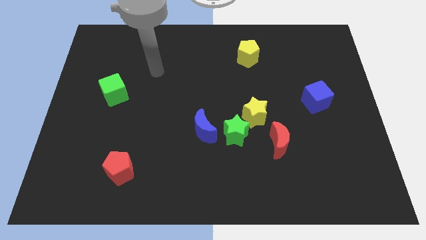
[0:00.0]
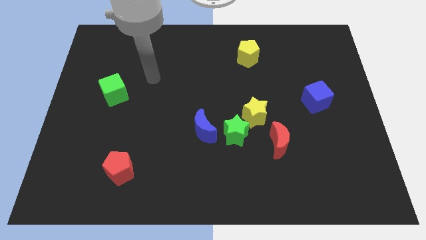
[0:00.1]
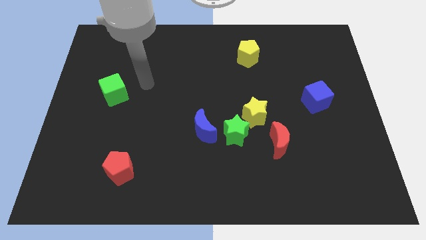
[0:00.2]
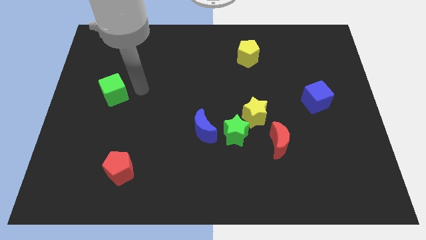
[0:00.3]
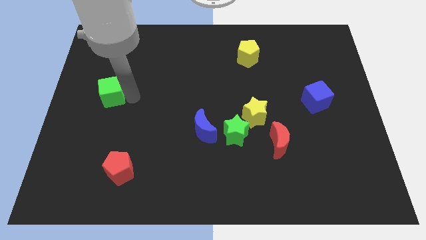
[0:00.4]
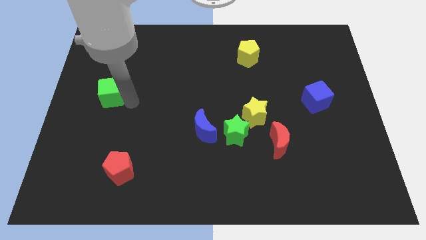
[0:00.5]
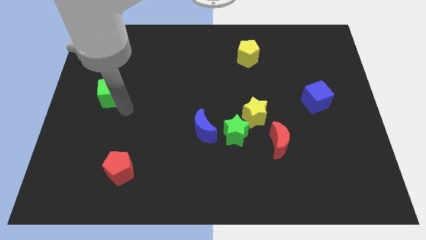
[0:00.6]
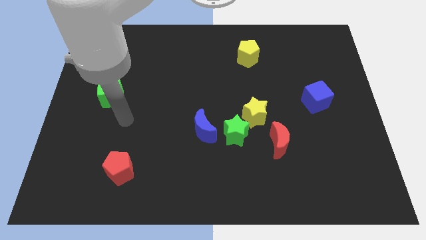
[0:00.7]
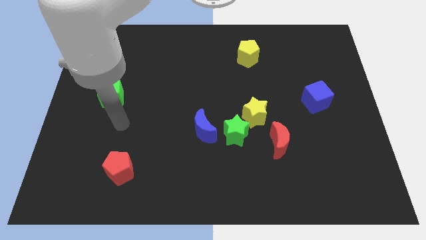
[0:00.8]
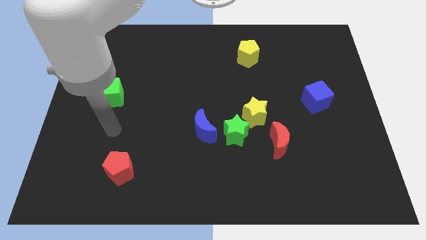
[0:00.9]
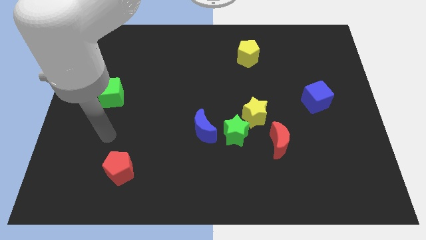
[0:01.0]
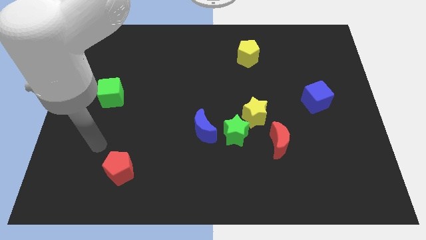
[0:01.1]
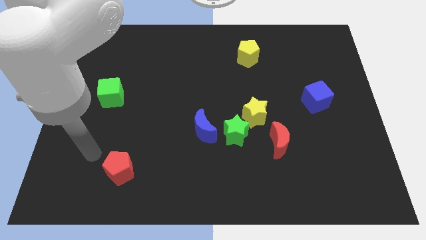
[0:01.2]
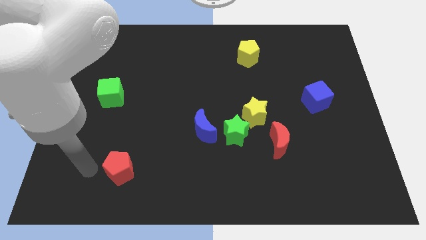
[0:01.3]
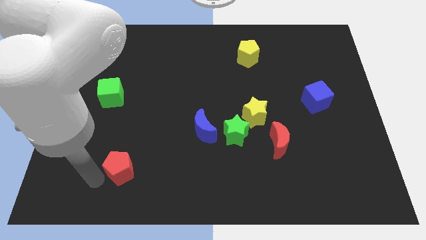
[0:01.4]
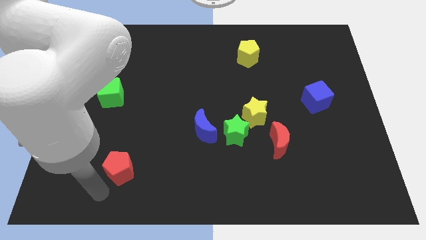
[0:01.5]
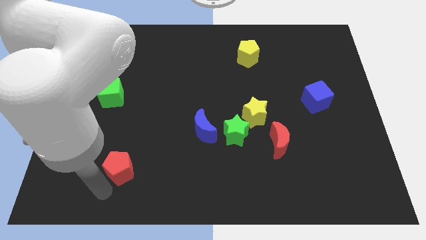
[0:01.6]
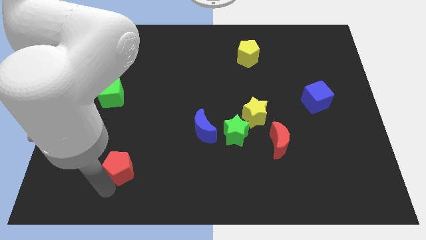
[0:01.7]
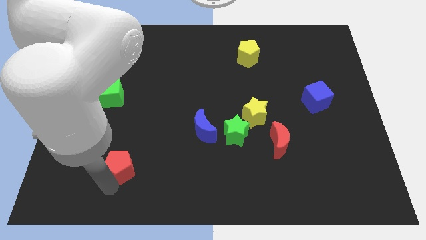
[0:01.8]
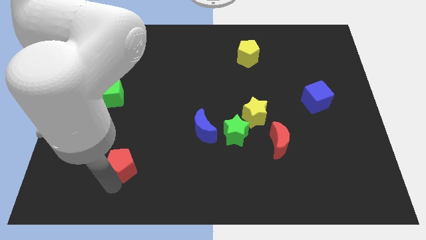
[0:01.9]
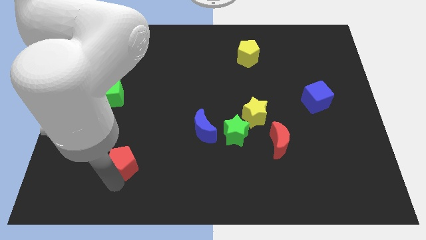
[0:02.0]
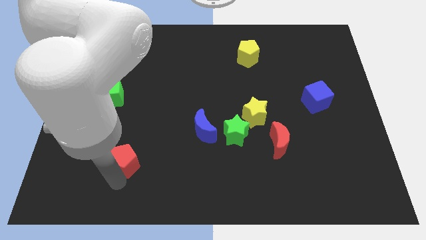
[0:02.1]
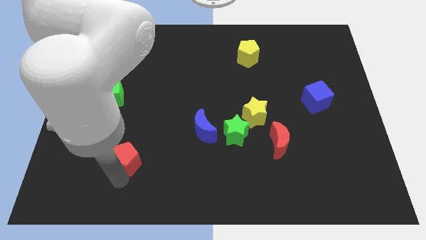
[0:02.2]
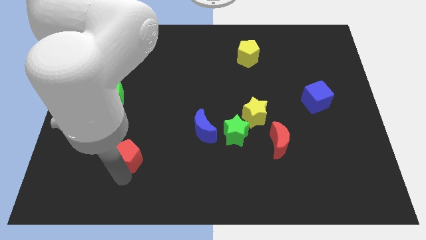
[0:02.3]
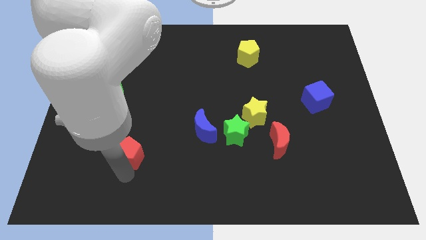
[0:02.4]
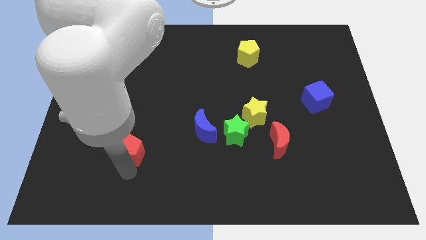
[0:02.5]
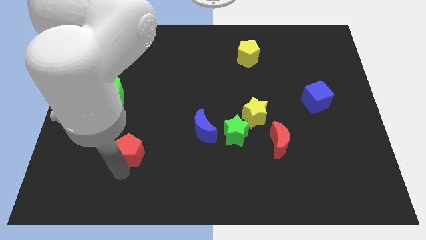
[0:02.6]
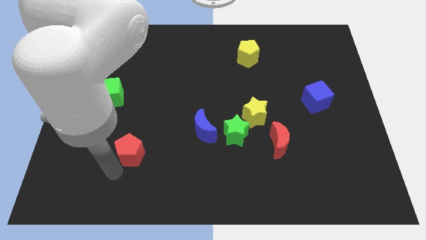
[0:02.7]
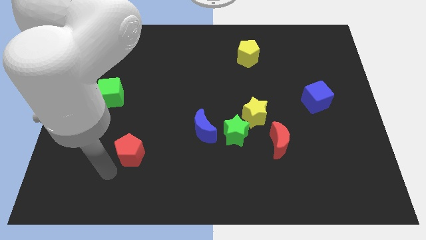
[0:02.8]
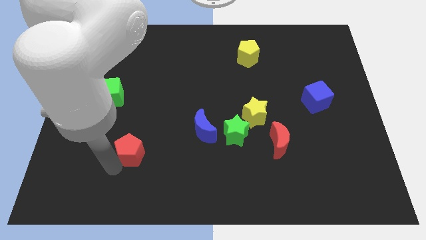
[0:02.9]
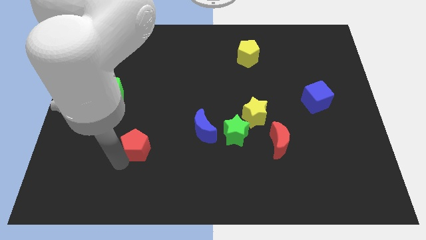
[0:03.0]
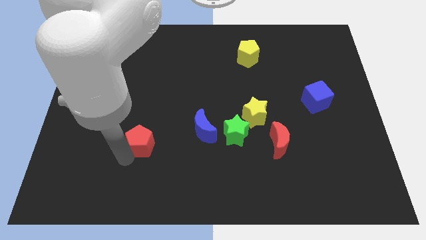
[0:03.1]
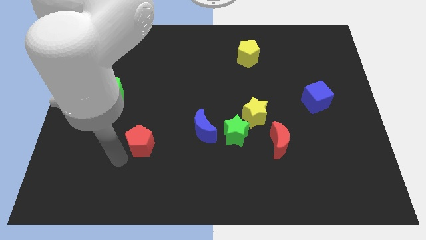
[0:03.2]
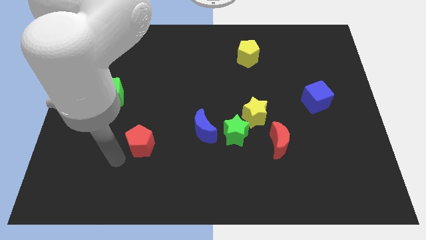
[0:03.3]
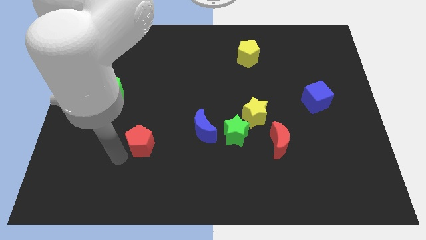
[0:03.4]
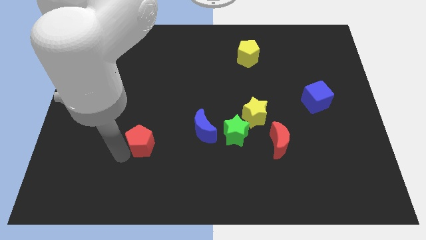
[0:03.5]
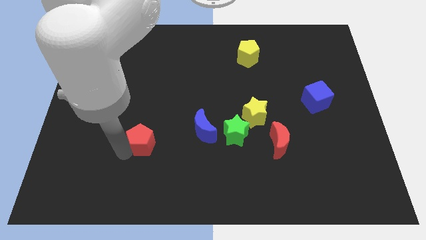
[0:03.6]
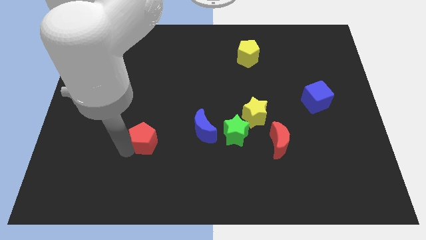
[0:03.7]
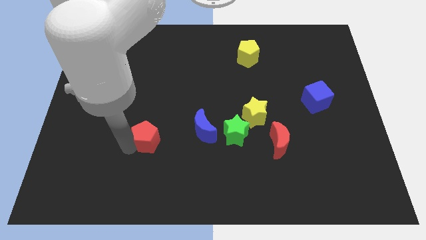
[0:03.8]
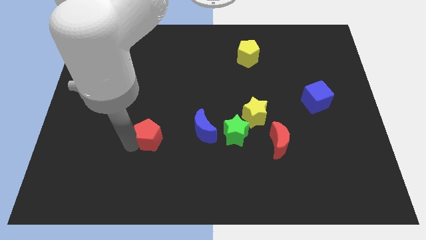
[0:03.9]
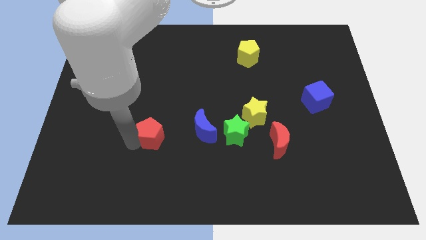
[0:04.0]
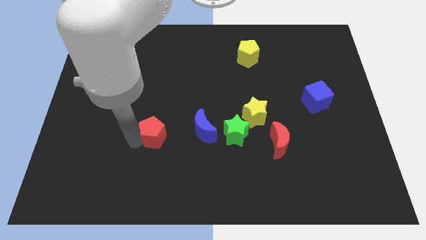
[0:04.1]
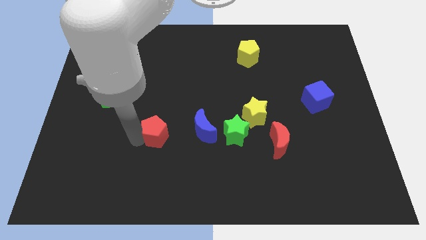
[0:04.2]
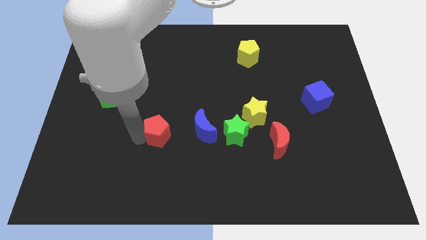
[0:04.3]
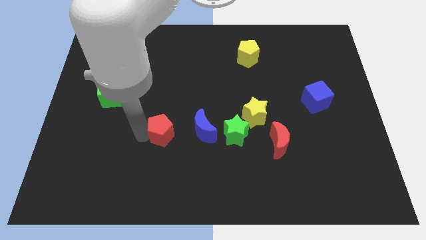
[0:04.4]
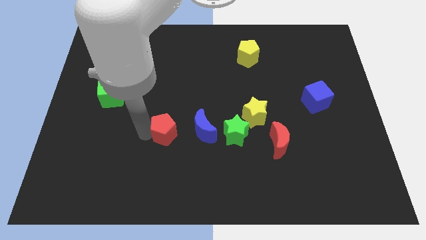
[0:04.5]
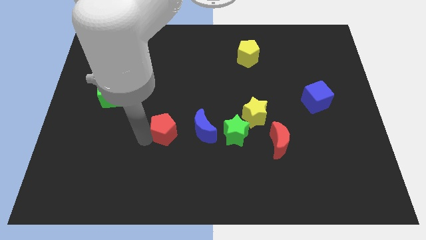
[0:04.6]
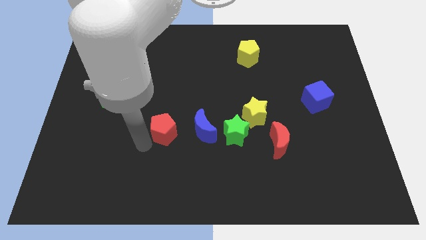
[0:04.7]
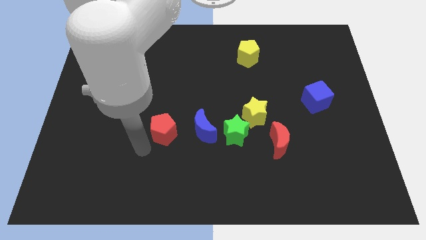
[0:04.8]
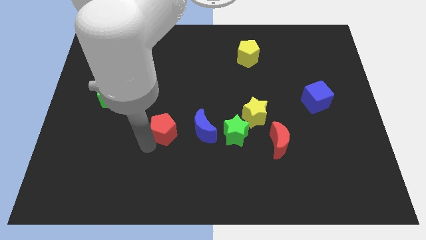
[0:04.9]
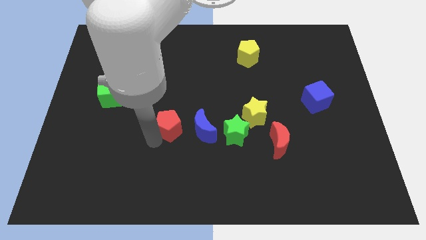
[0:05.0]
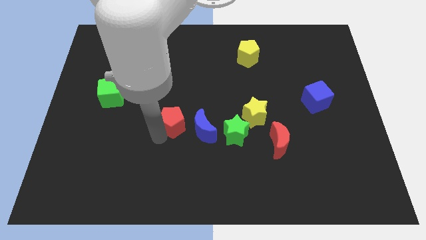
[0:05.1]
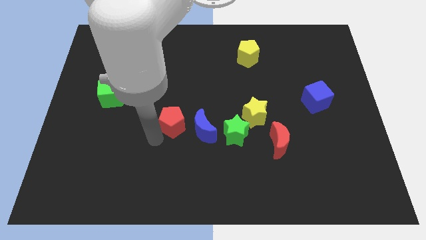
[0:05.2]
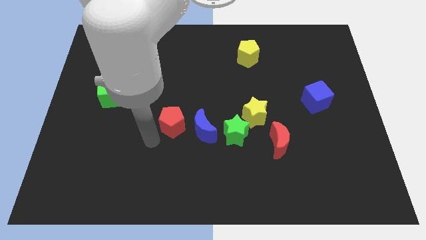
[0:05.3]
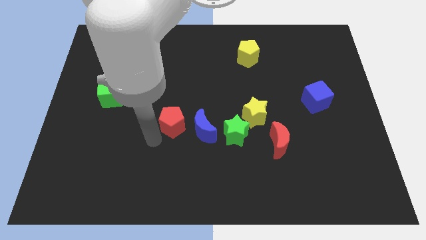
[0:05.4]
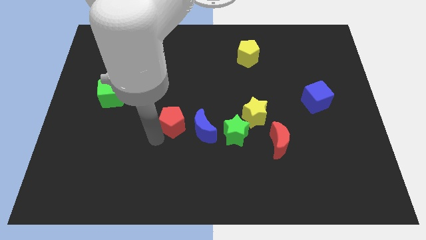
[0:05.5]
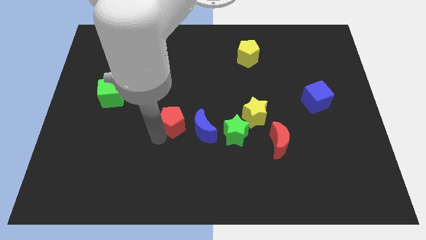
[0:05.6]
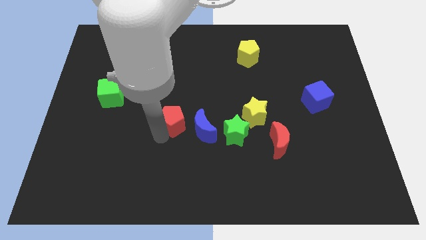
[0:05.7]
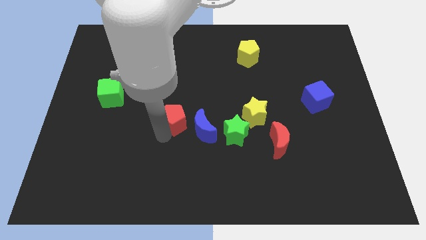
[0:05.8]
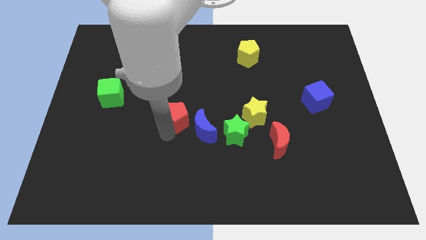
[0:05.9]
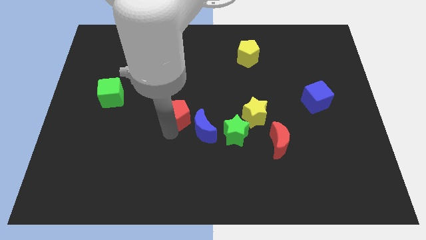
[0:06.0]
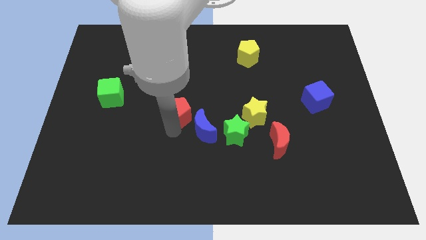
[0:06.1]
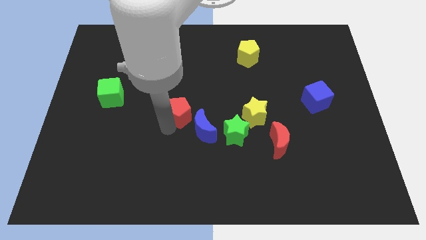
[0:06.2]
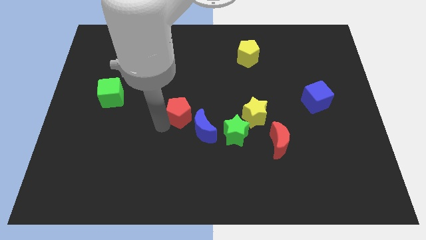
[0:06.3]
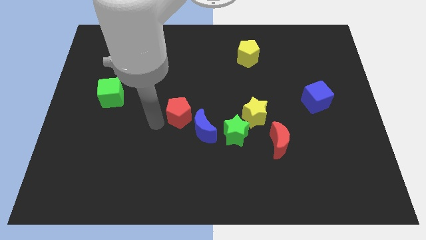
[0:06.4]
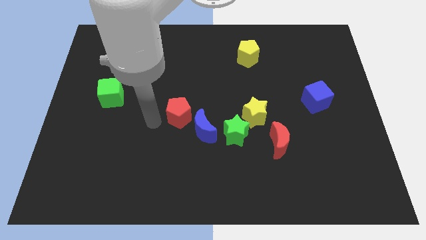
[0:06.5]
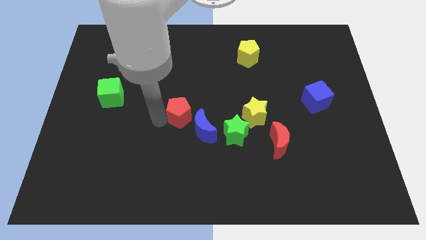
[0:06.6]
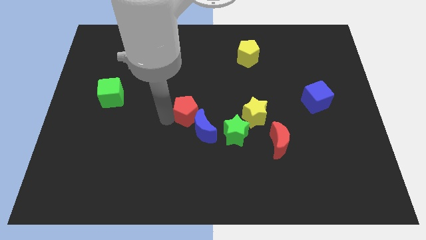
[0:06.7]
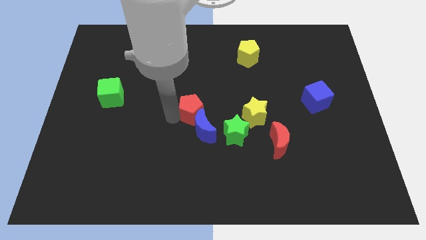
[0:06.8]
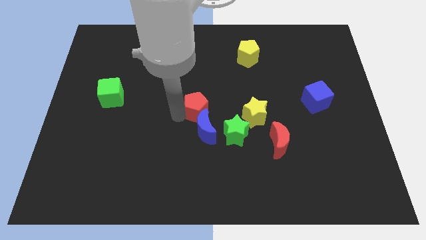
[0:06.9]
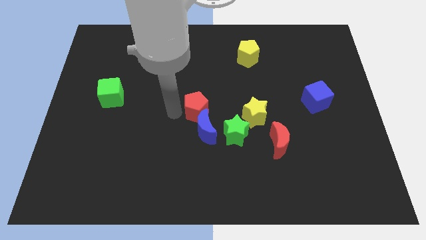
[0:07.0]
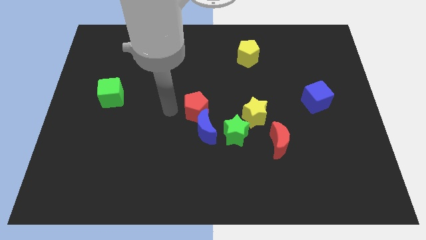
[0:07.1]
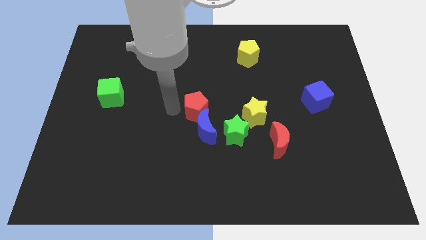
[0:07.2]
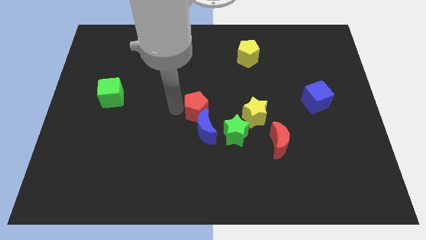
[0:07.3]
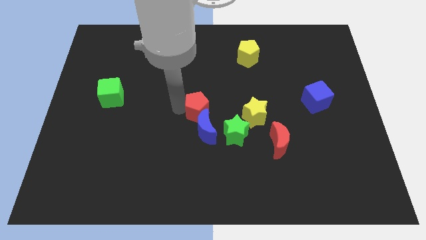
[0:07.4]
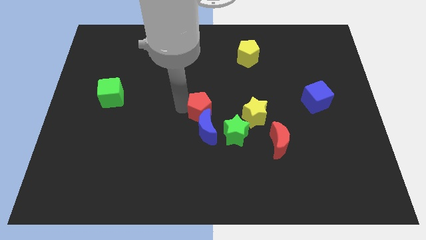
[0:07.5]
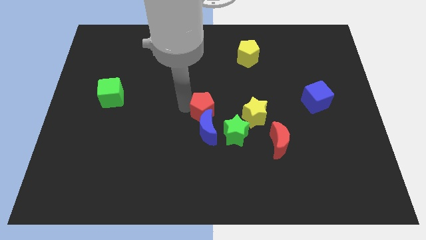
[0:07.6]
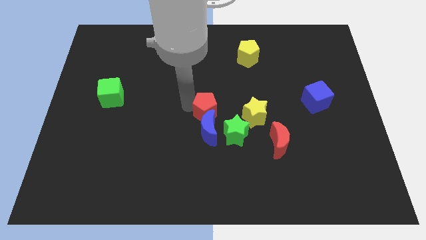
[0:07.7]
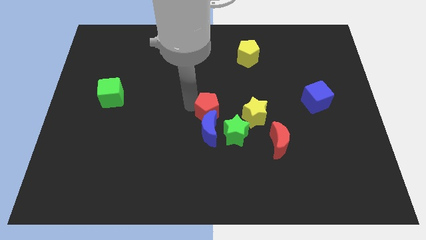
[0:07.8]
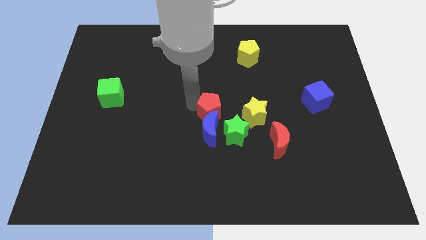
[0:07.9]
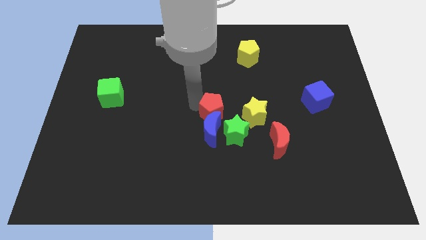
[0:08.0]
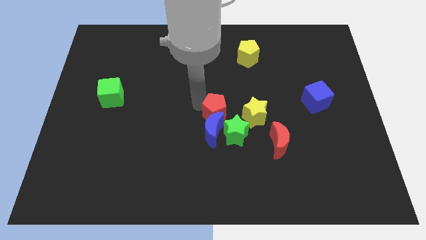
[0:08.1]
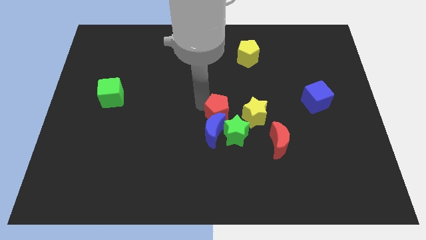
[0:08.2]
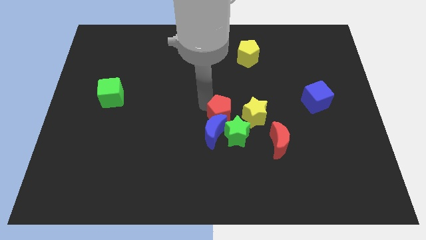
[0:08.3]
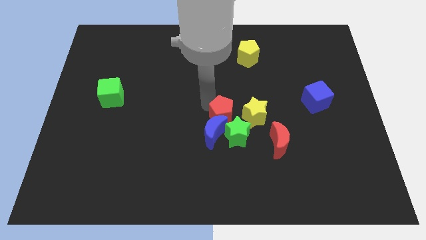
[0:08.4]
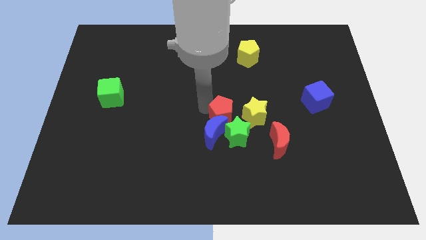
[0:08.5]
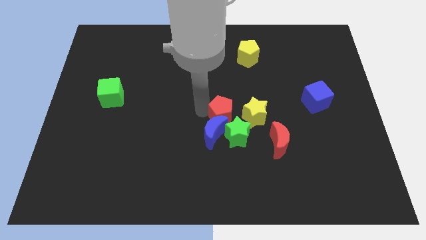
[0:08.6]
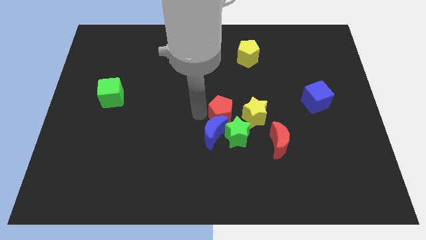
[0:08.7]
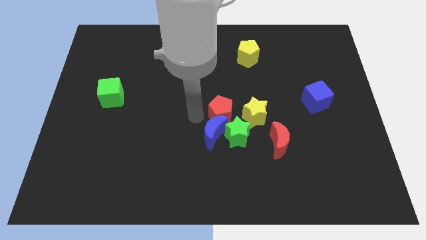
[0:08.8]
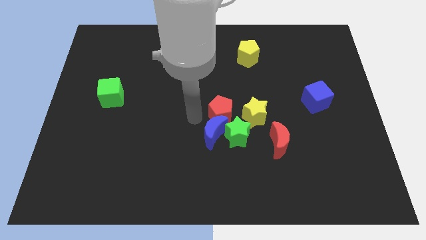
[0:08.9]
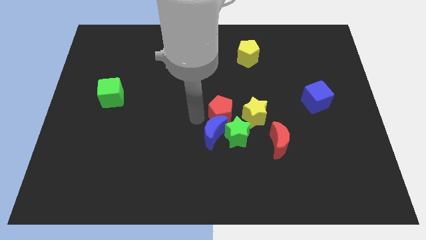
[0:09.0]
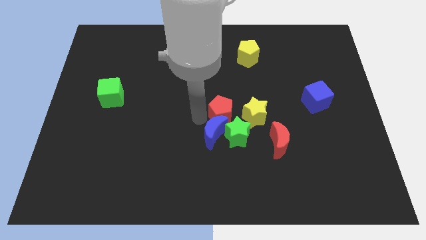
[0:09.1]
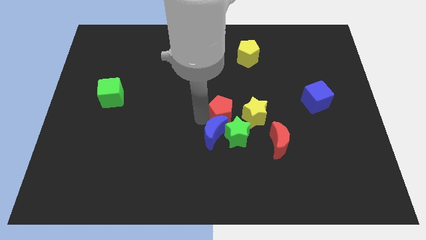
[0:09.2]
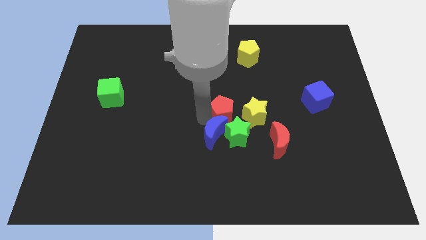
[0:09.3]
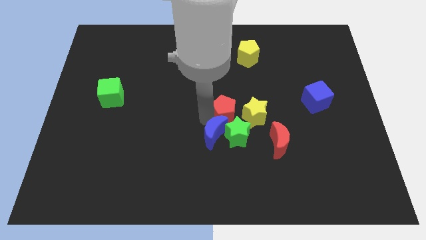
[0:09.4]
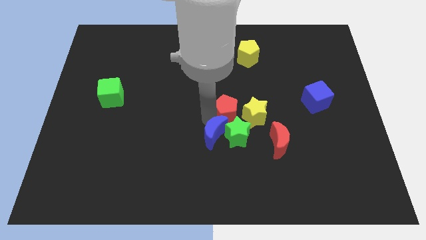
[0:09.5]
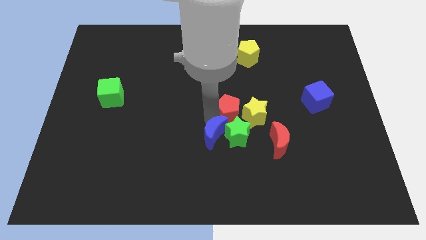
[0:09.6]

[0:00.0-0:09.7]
put the red pentagon next to the yellow star
